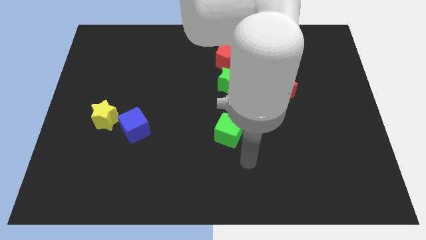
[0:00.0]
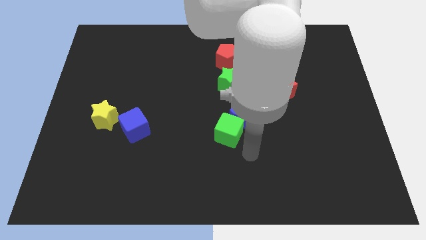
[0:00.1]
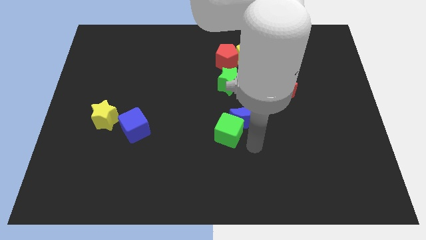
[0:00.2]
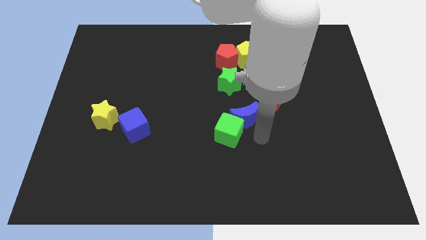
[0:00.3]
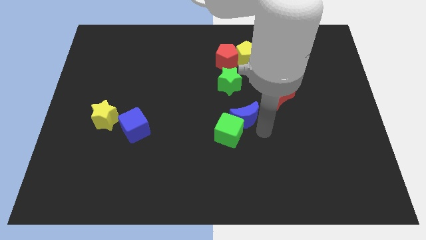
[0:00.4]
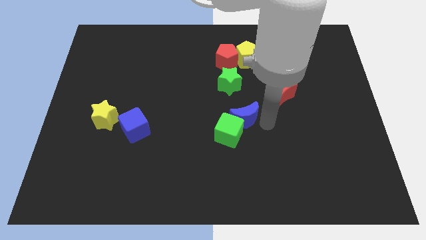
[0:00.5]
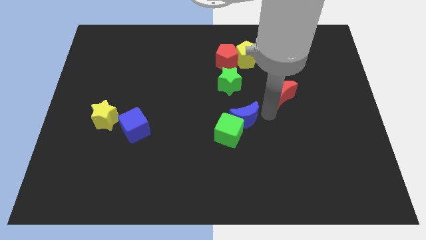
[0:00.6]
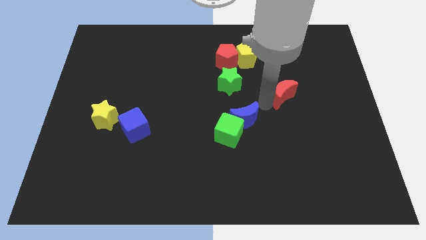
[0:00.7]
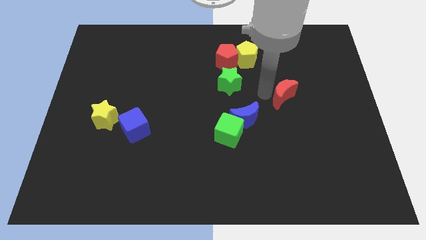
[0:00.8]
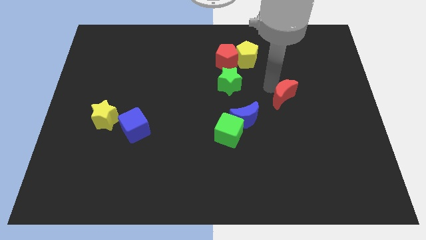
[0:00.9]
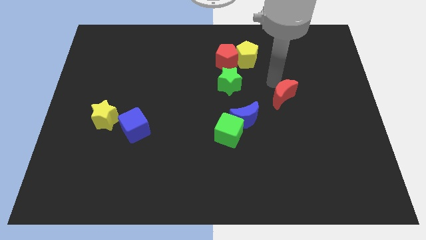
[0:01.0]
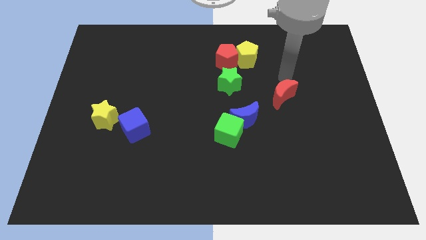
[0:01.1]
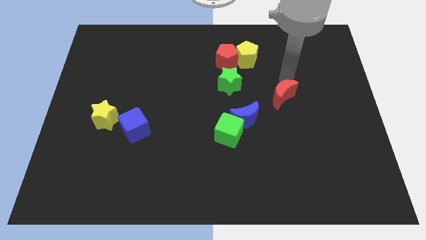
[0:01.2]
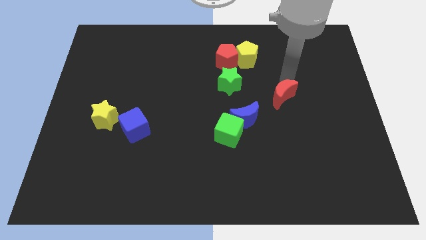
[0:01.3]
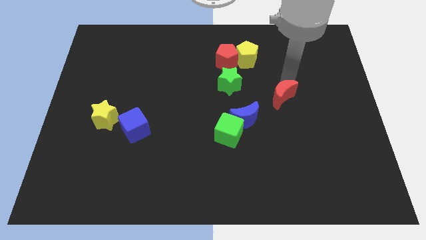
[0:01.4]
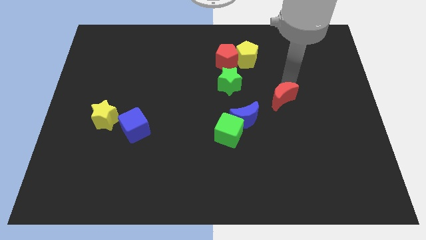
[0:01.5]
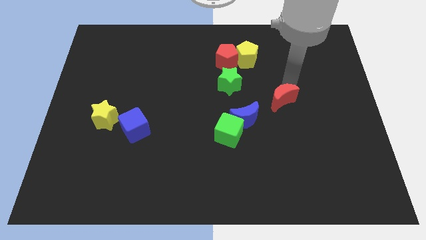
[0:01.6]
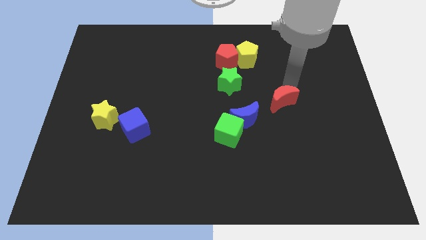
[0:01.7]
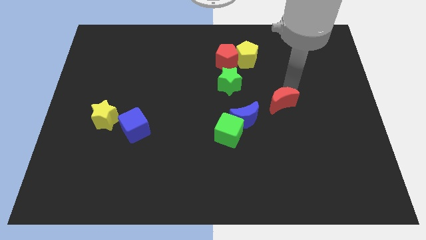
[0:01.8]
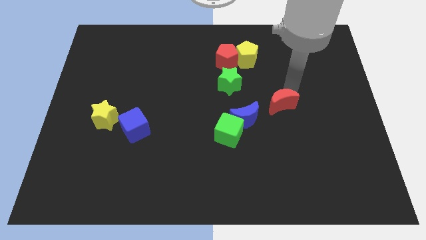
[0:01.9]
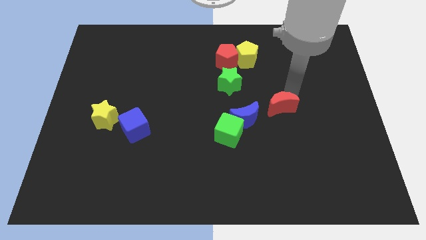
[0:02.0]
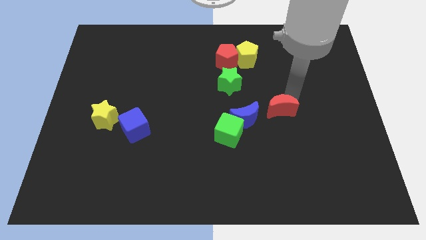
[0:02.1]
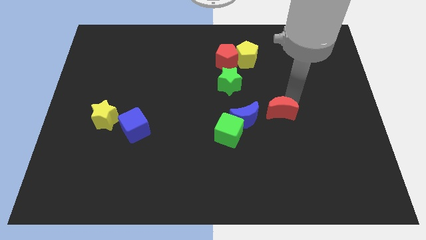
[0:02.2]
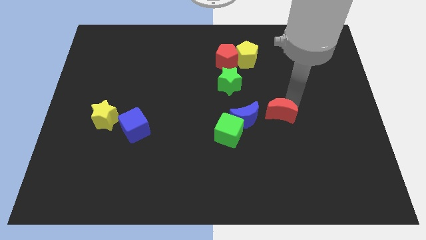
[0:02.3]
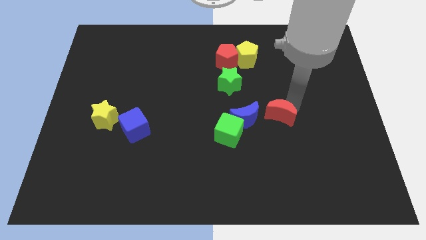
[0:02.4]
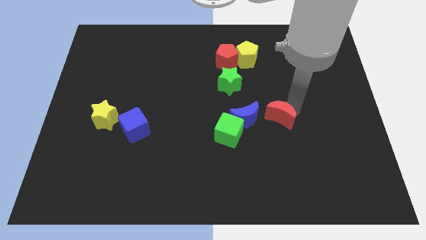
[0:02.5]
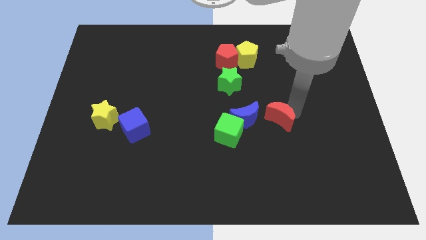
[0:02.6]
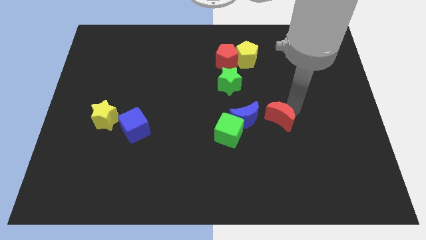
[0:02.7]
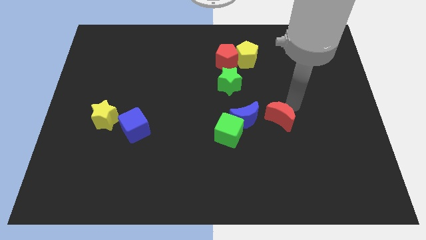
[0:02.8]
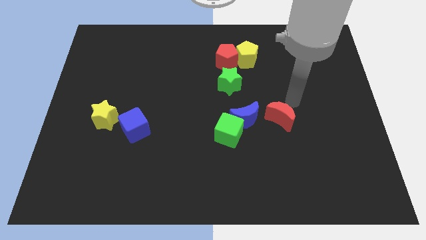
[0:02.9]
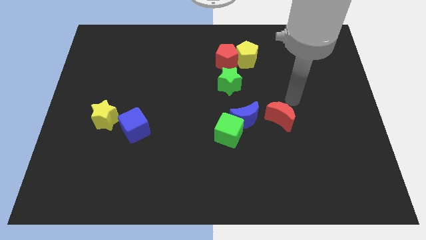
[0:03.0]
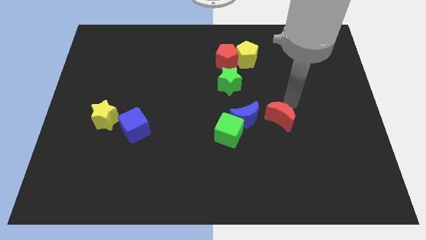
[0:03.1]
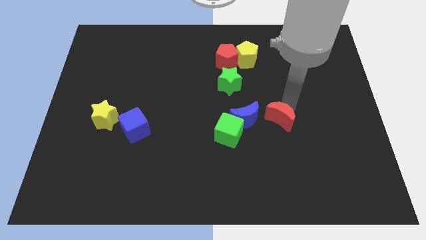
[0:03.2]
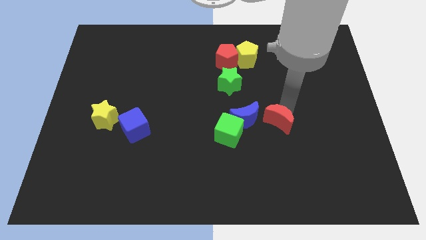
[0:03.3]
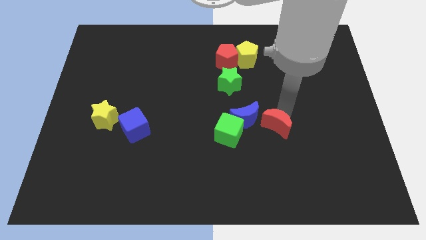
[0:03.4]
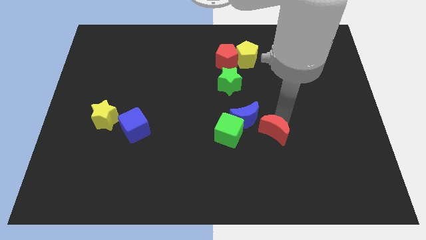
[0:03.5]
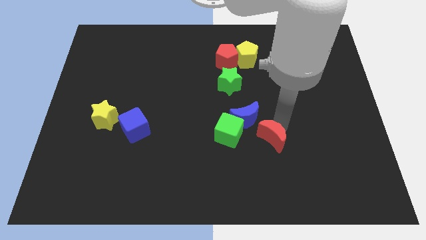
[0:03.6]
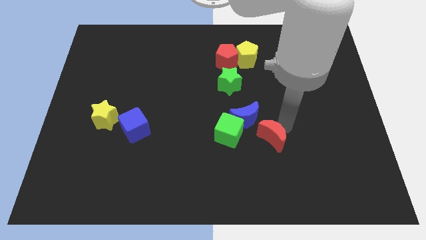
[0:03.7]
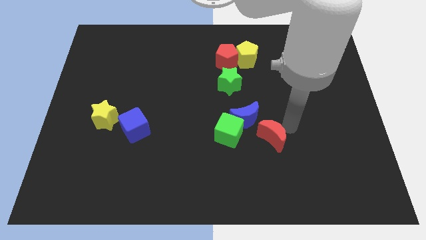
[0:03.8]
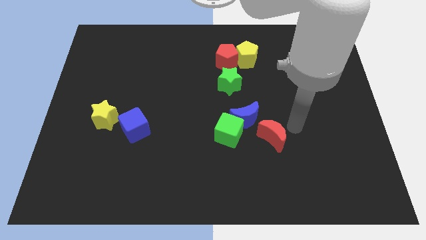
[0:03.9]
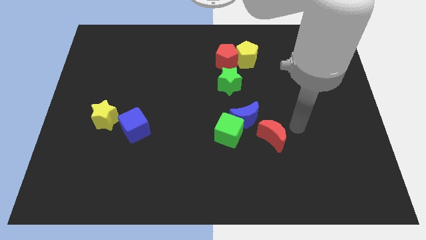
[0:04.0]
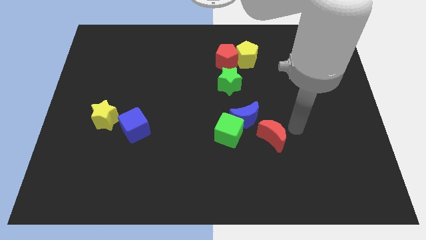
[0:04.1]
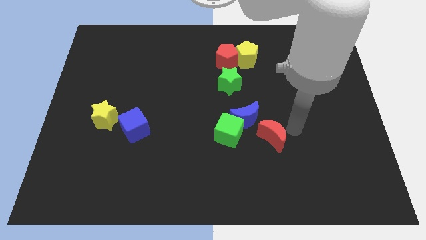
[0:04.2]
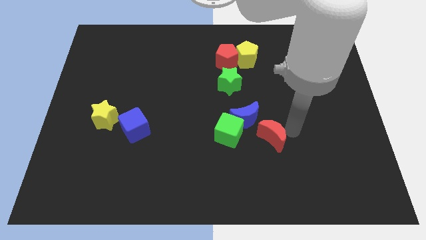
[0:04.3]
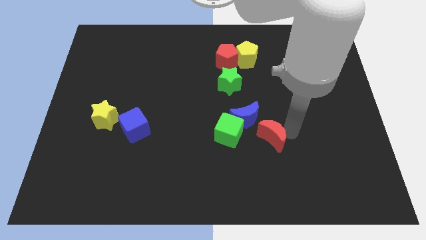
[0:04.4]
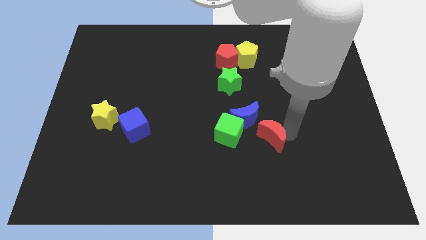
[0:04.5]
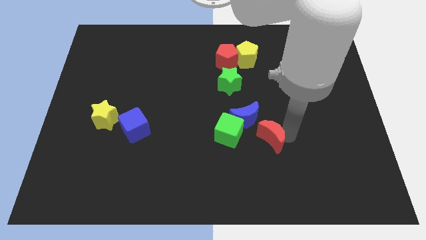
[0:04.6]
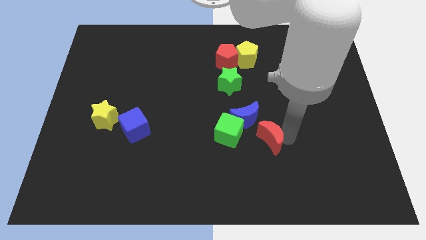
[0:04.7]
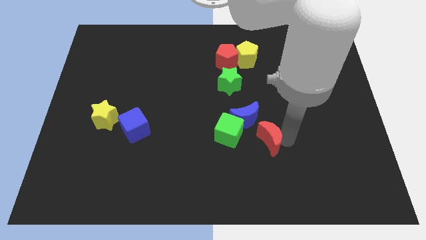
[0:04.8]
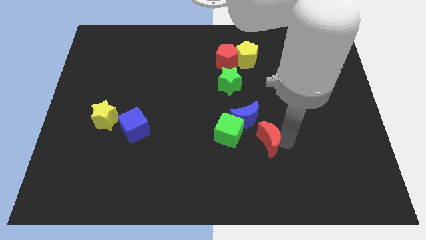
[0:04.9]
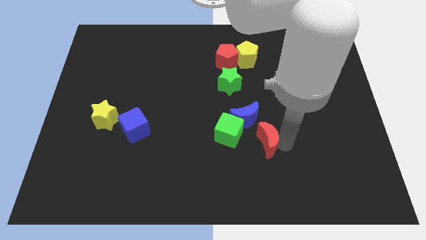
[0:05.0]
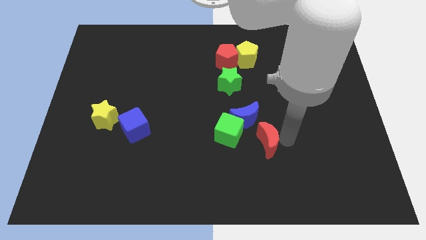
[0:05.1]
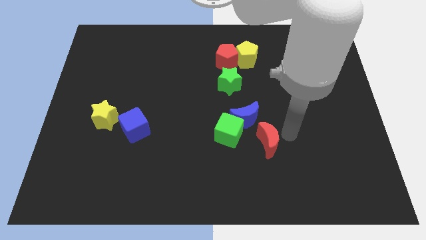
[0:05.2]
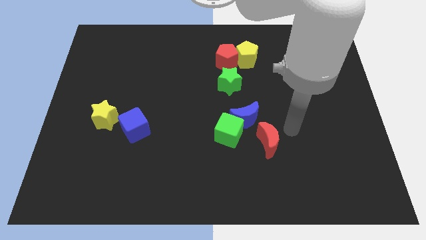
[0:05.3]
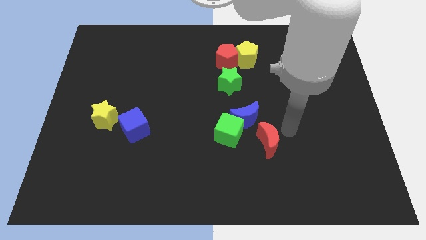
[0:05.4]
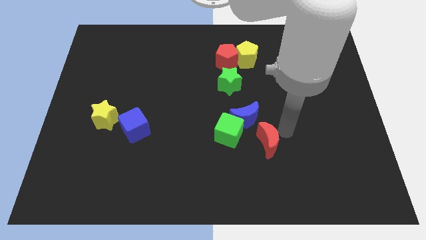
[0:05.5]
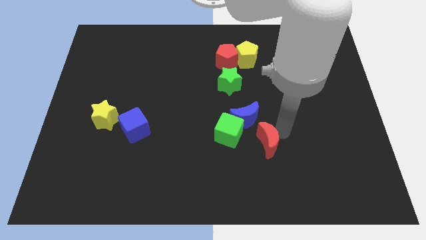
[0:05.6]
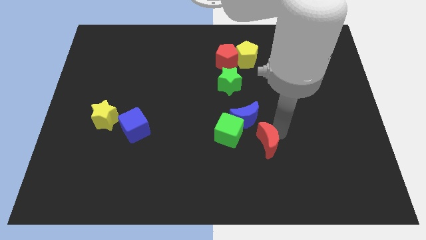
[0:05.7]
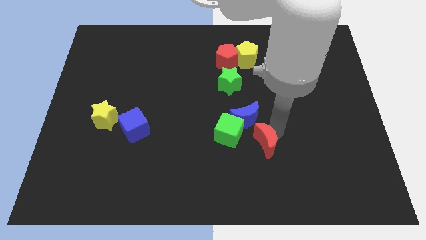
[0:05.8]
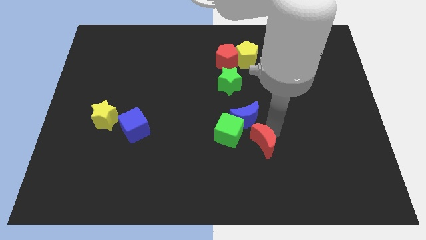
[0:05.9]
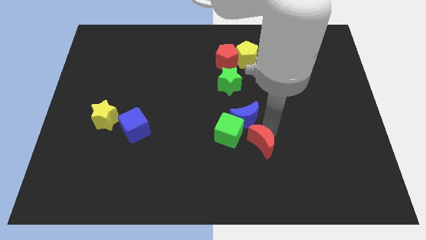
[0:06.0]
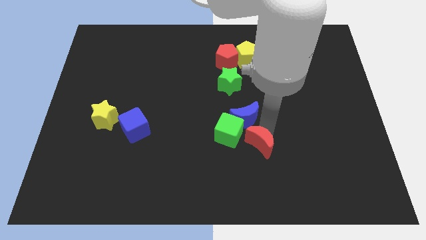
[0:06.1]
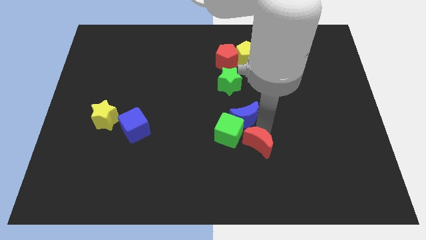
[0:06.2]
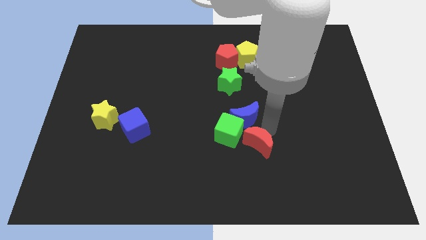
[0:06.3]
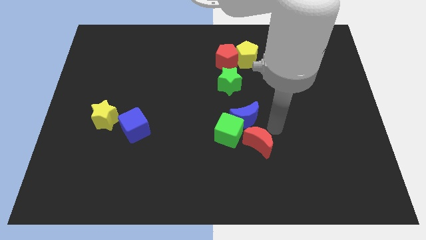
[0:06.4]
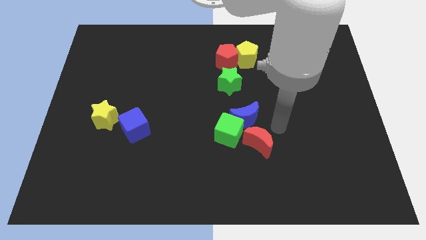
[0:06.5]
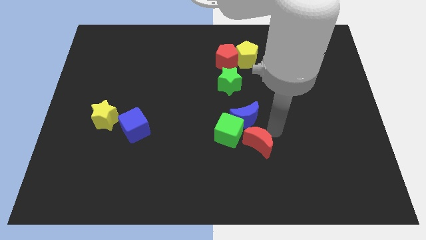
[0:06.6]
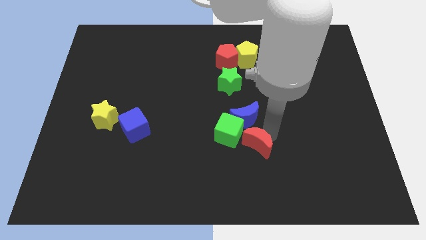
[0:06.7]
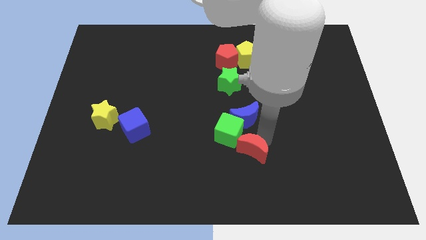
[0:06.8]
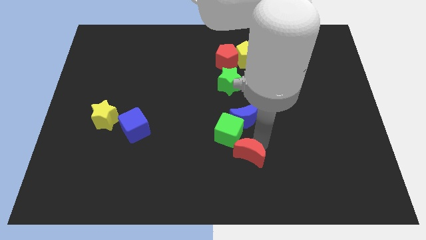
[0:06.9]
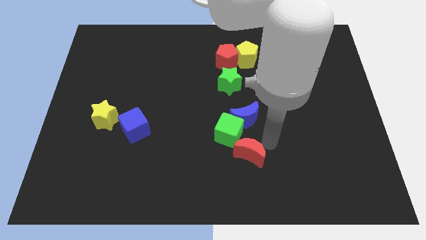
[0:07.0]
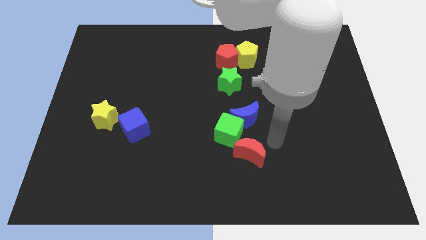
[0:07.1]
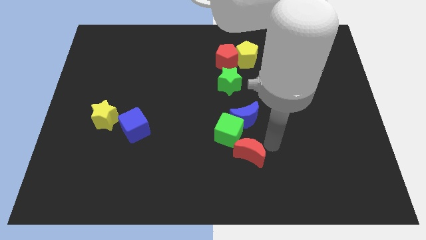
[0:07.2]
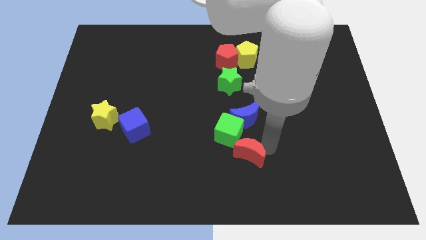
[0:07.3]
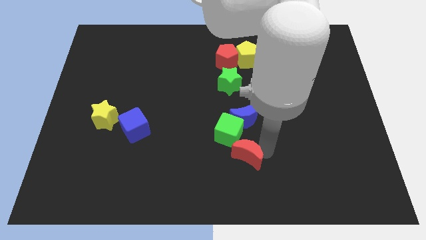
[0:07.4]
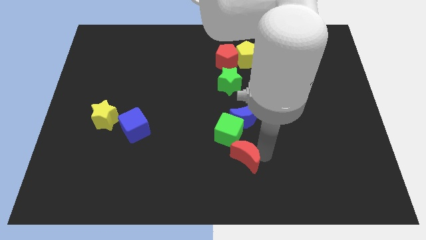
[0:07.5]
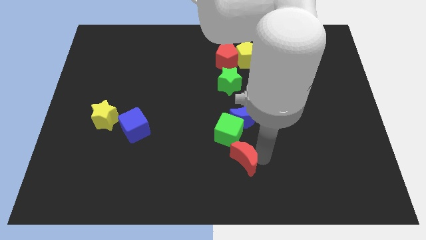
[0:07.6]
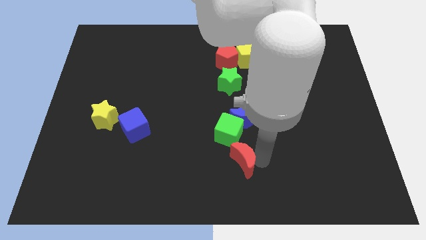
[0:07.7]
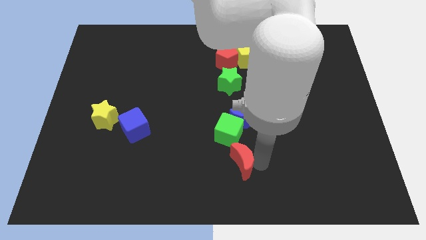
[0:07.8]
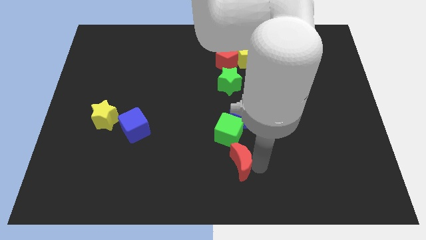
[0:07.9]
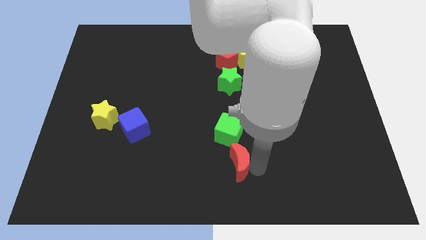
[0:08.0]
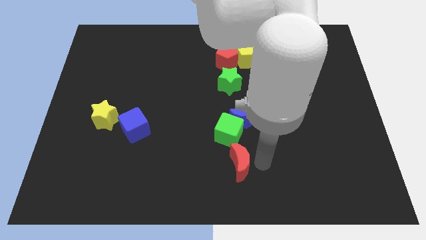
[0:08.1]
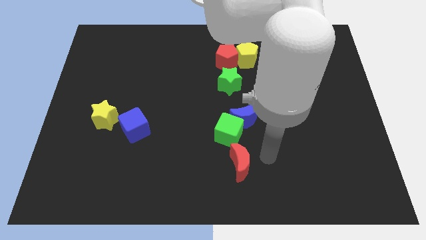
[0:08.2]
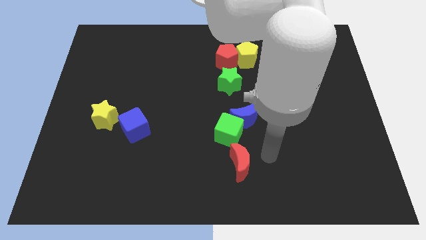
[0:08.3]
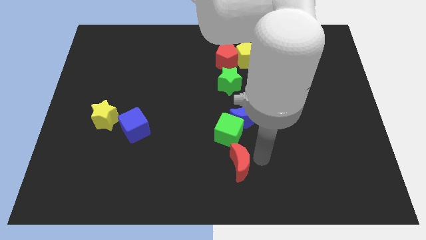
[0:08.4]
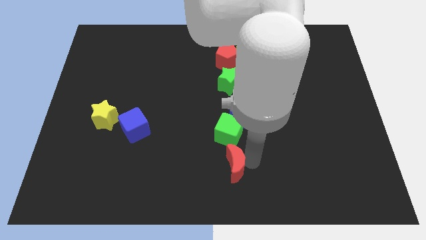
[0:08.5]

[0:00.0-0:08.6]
push the red moon down and then to the left
